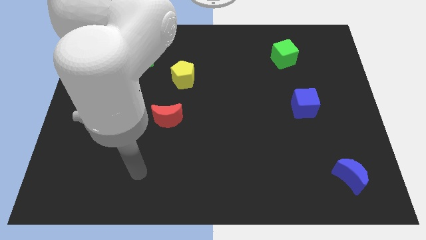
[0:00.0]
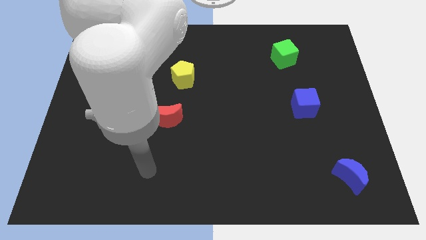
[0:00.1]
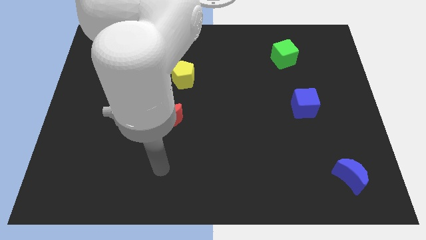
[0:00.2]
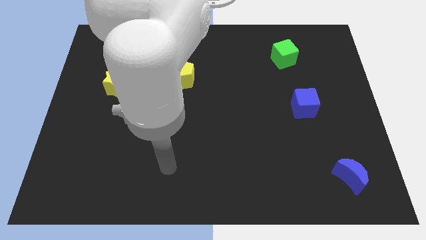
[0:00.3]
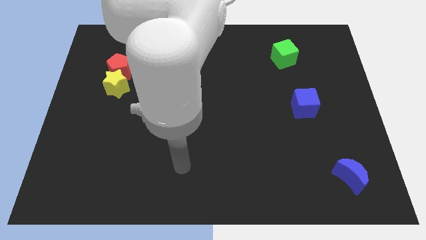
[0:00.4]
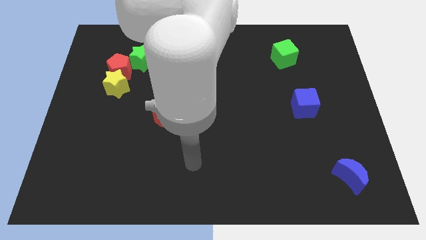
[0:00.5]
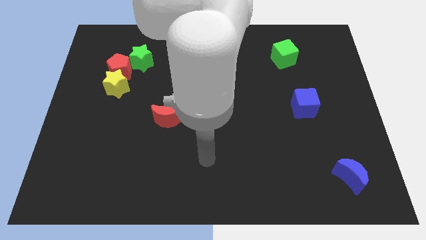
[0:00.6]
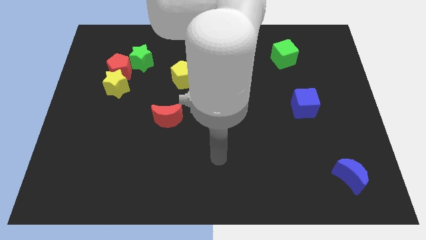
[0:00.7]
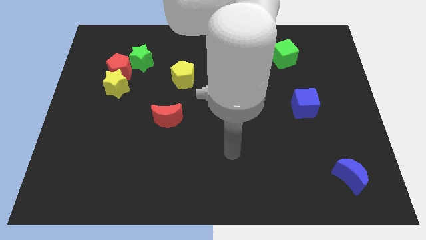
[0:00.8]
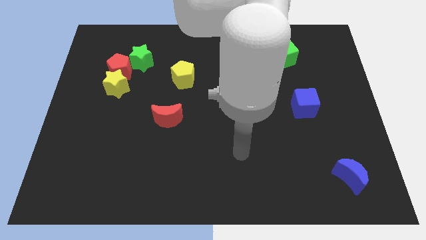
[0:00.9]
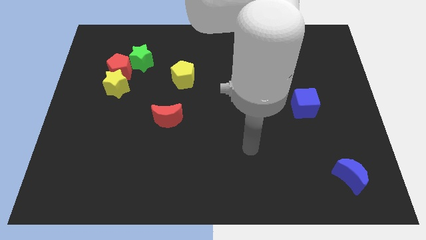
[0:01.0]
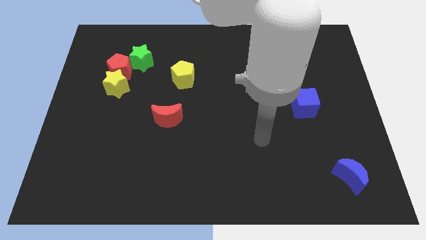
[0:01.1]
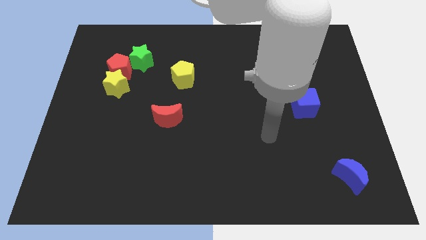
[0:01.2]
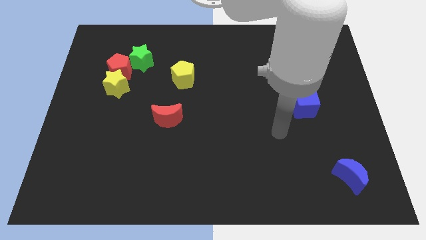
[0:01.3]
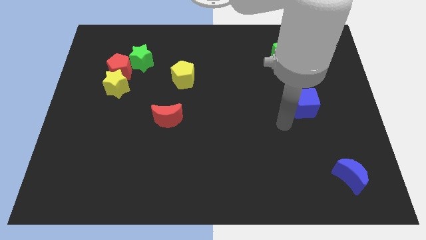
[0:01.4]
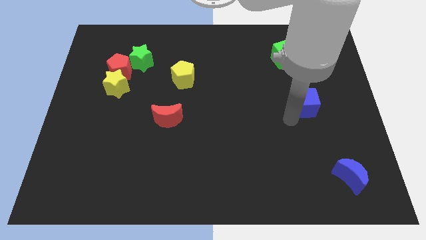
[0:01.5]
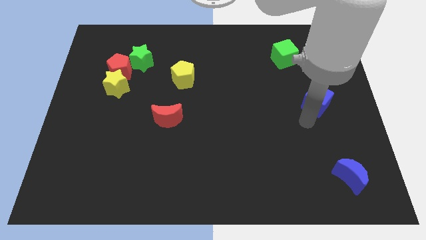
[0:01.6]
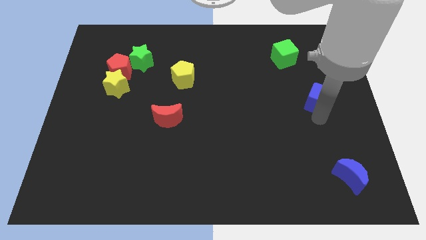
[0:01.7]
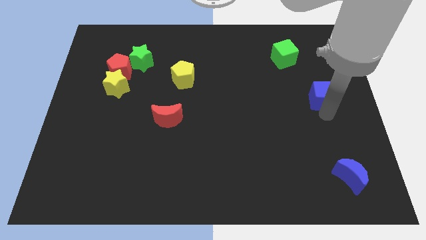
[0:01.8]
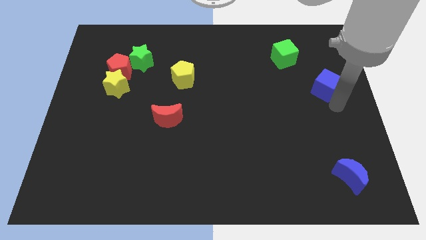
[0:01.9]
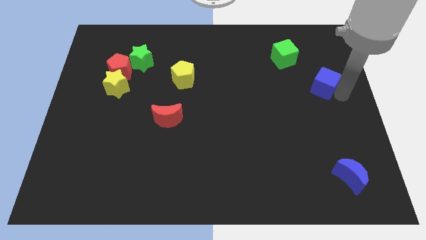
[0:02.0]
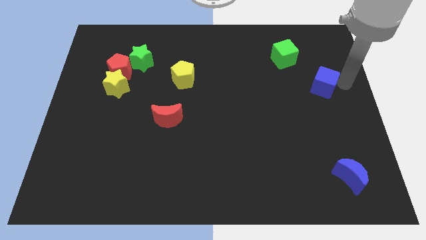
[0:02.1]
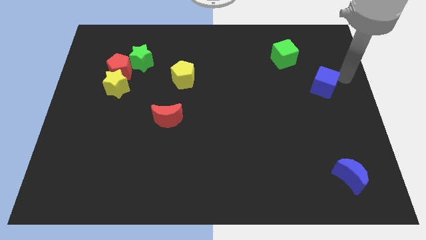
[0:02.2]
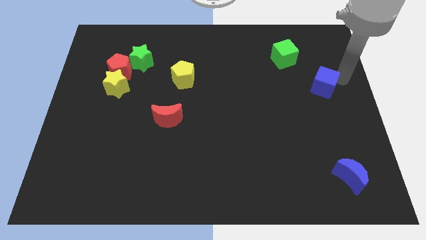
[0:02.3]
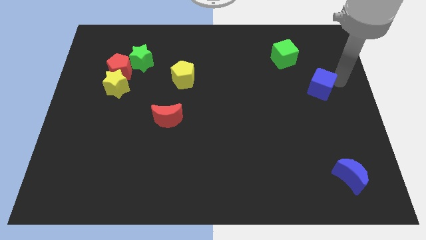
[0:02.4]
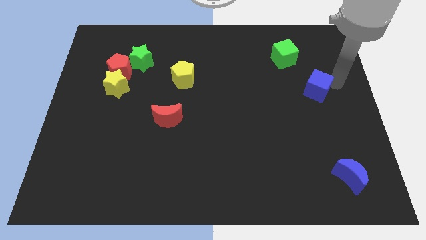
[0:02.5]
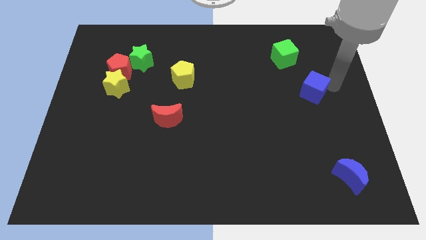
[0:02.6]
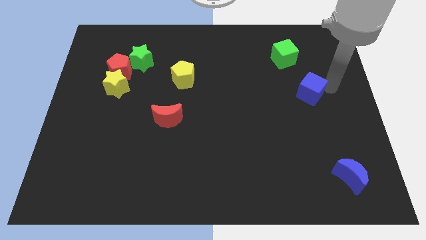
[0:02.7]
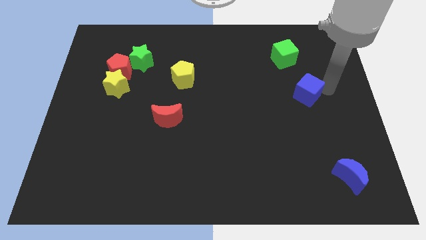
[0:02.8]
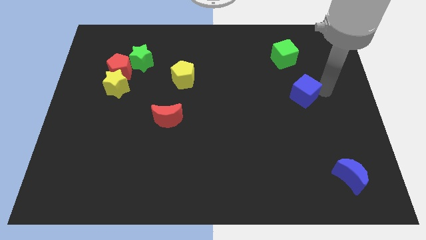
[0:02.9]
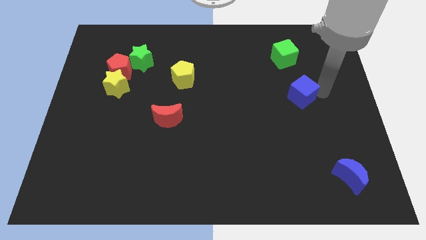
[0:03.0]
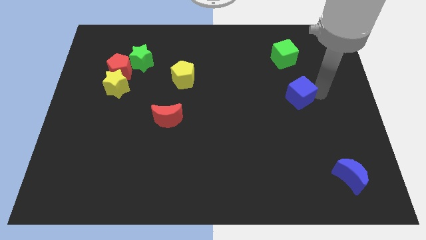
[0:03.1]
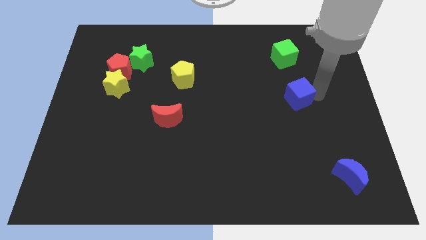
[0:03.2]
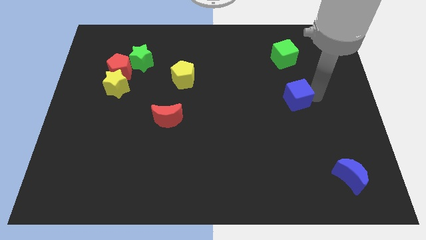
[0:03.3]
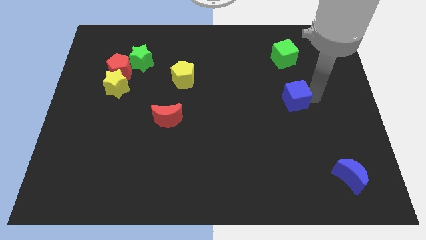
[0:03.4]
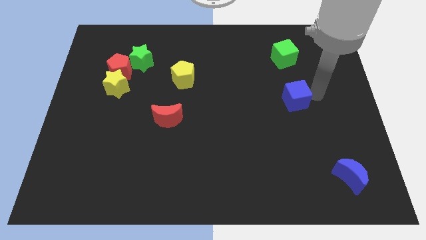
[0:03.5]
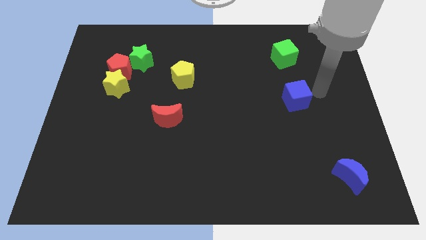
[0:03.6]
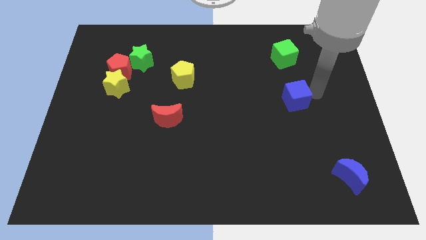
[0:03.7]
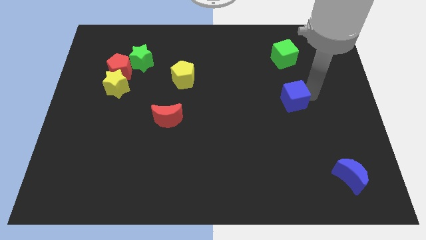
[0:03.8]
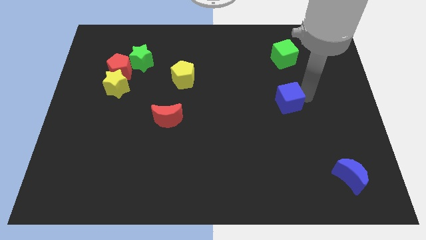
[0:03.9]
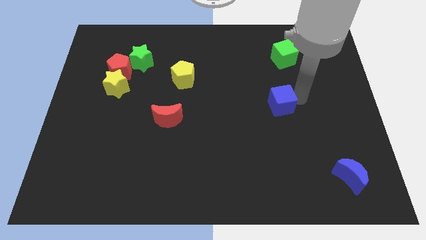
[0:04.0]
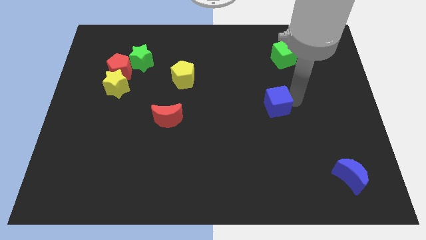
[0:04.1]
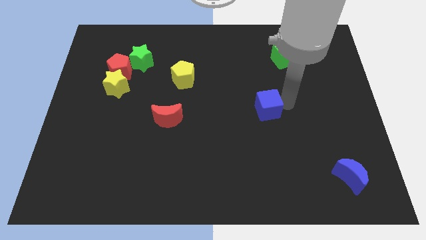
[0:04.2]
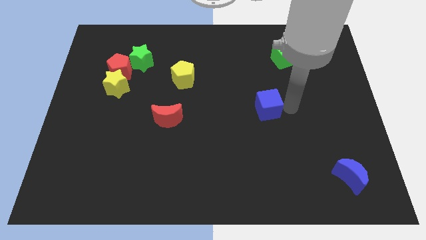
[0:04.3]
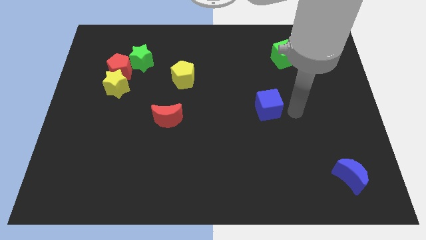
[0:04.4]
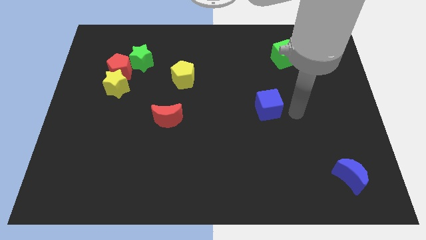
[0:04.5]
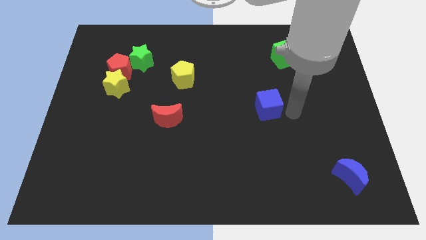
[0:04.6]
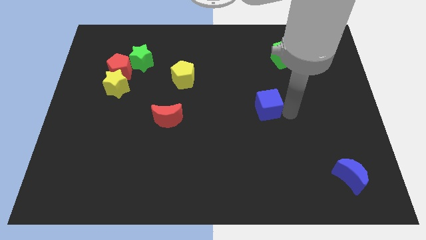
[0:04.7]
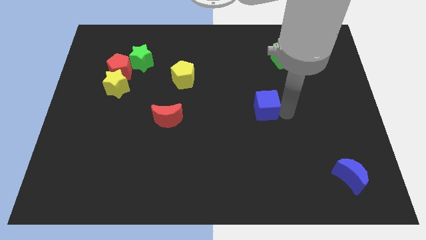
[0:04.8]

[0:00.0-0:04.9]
move the blue cube to the middle

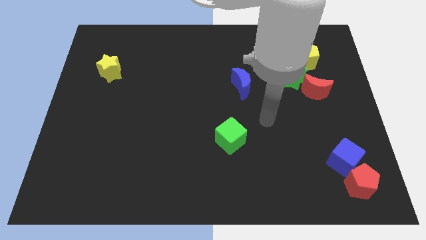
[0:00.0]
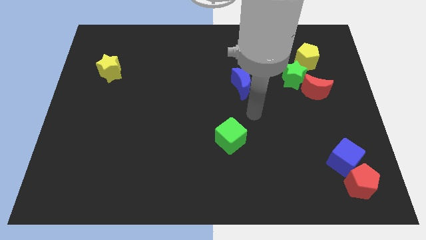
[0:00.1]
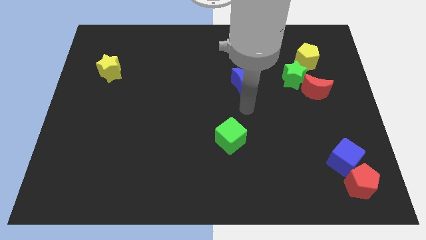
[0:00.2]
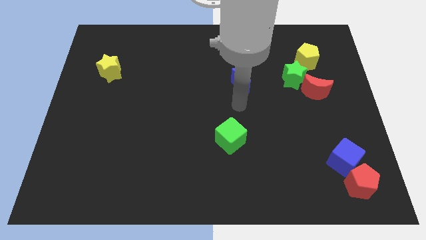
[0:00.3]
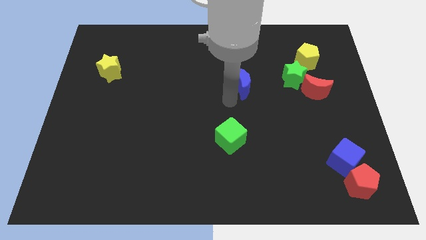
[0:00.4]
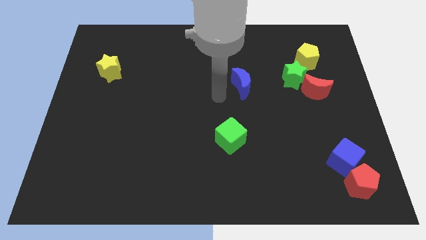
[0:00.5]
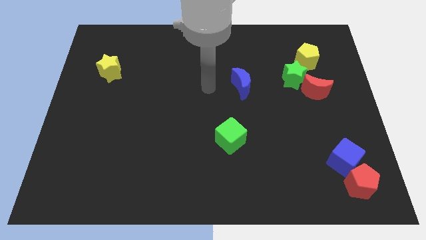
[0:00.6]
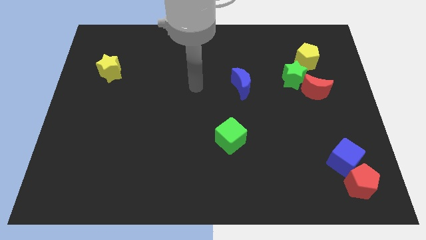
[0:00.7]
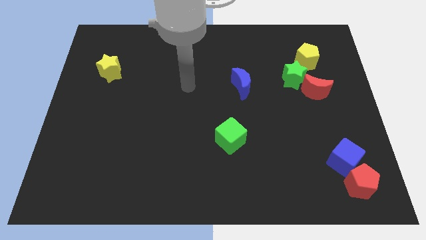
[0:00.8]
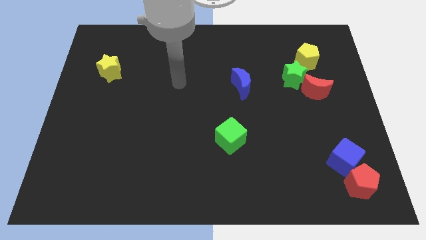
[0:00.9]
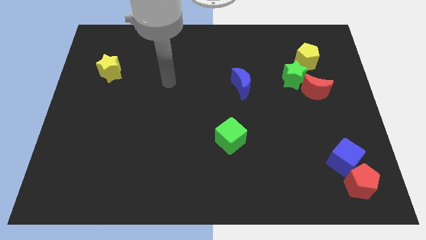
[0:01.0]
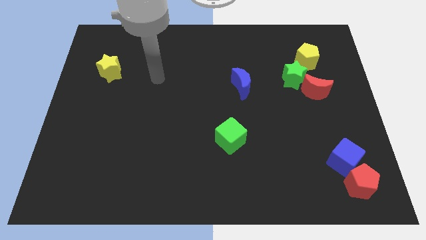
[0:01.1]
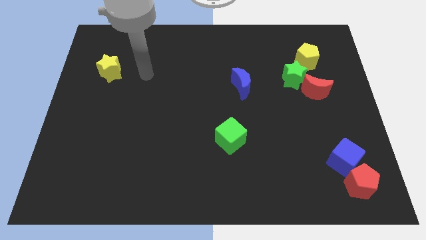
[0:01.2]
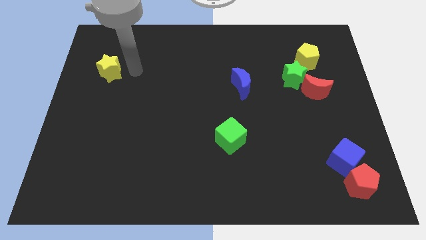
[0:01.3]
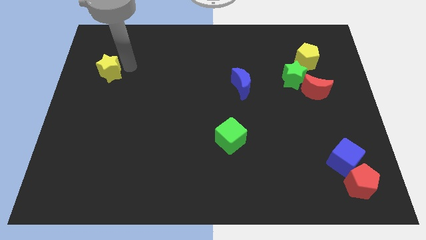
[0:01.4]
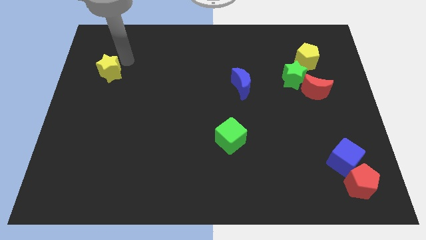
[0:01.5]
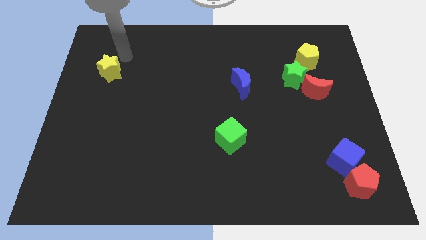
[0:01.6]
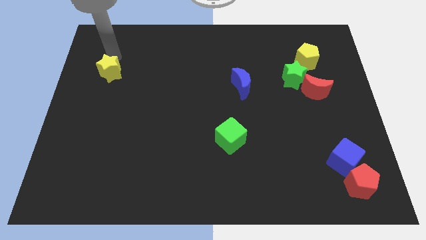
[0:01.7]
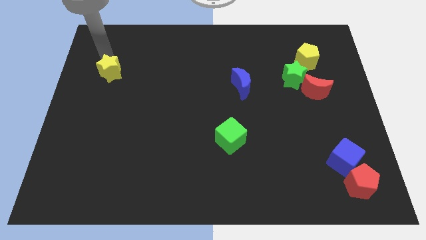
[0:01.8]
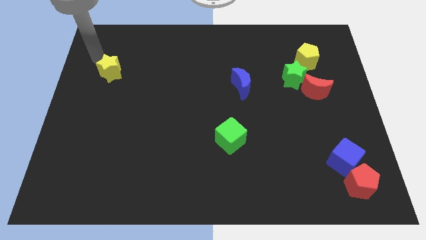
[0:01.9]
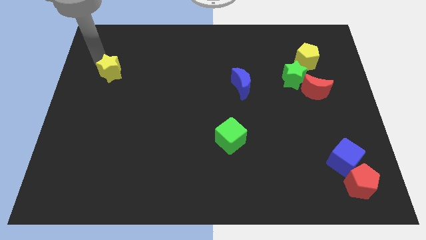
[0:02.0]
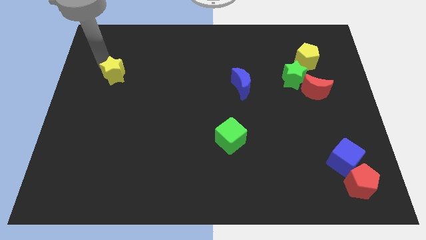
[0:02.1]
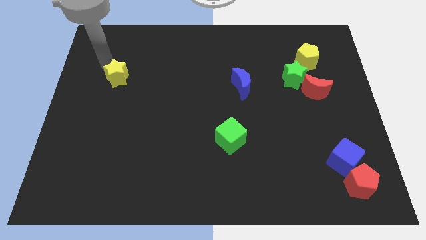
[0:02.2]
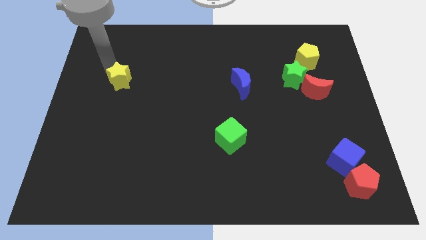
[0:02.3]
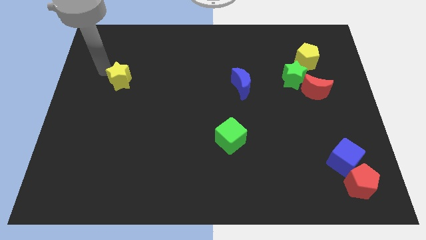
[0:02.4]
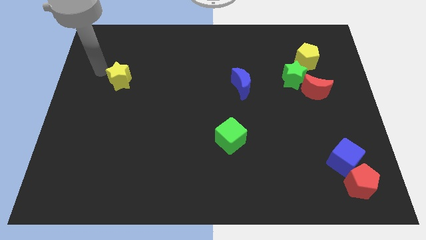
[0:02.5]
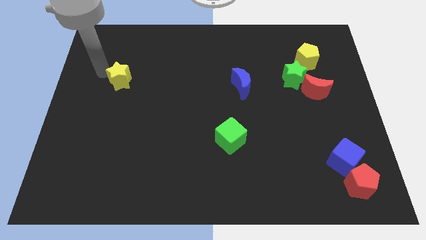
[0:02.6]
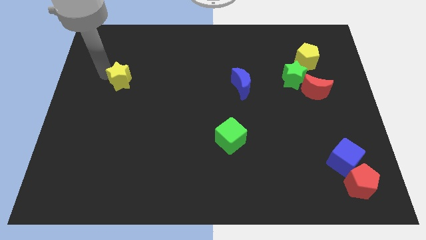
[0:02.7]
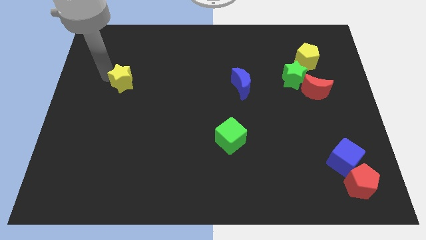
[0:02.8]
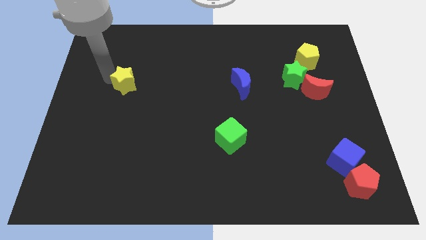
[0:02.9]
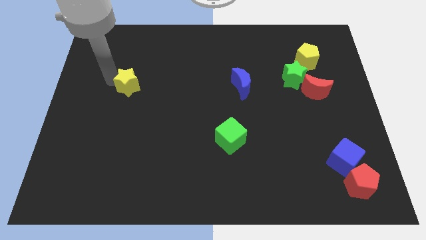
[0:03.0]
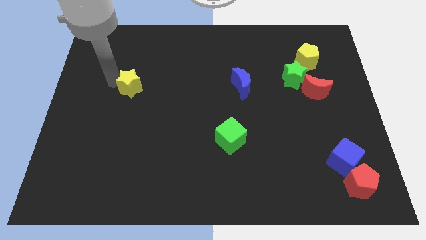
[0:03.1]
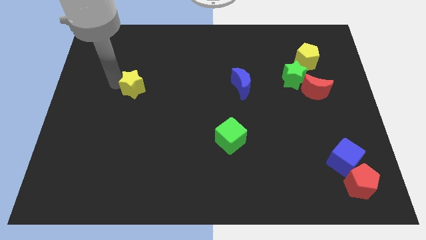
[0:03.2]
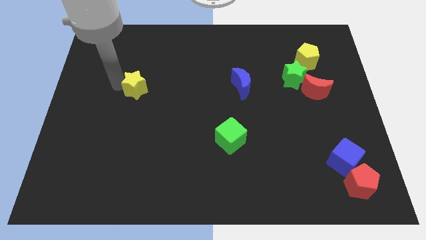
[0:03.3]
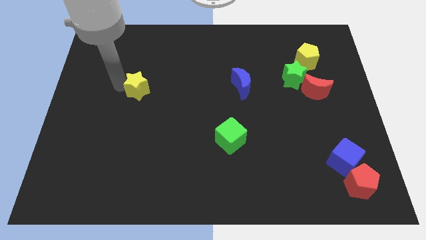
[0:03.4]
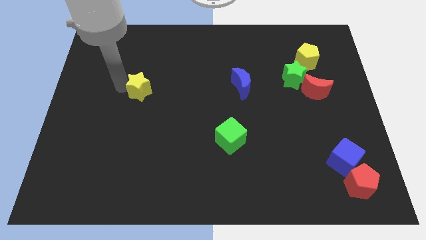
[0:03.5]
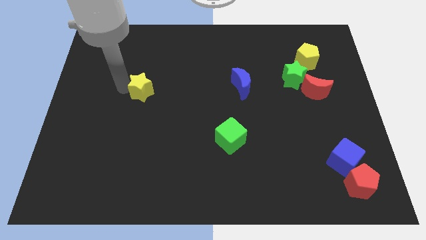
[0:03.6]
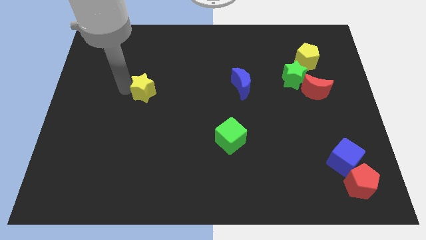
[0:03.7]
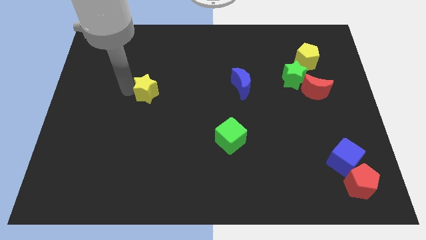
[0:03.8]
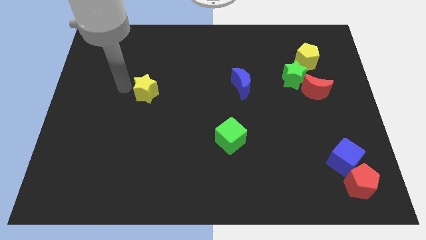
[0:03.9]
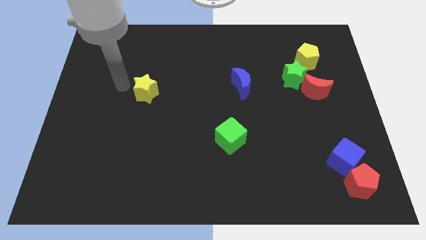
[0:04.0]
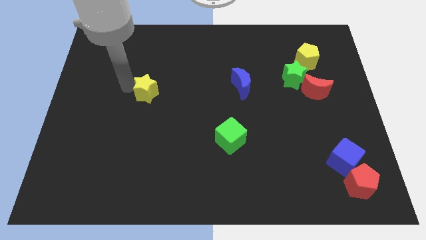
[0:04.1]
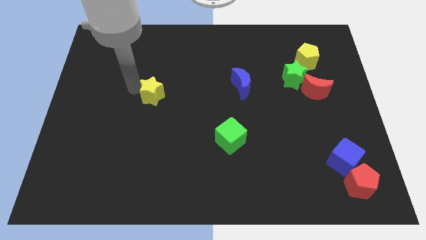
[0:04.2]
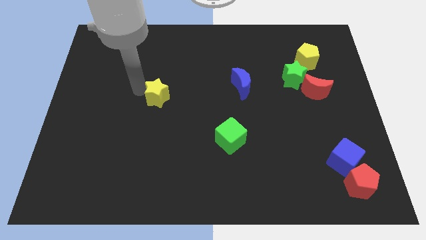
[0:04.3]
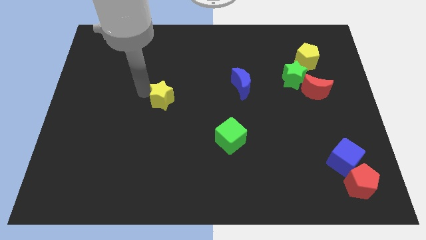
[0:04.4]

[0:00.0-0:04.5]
put the yellow star to the center
